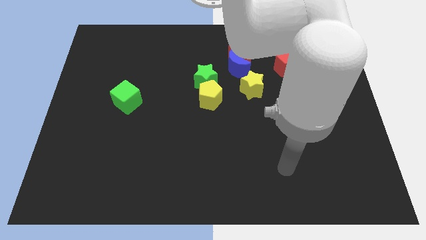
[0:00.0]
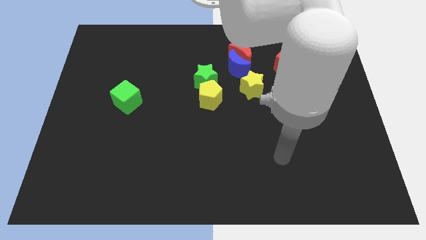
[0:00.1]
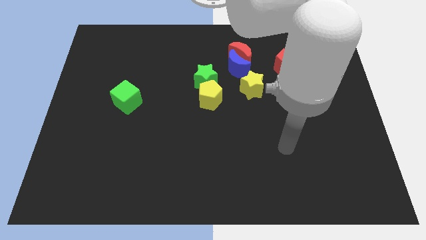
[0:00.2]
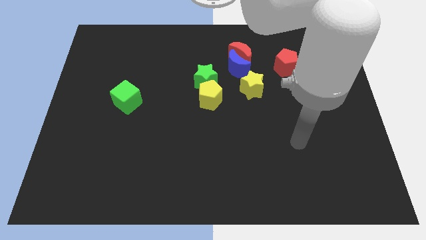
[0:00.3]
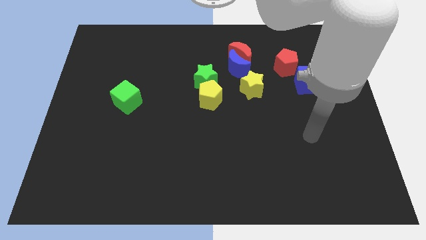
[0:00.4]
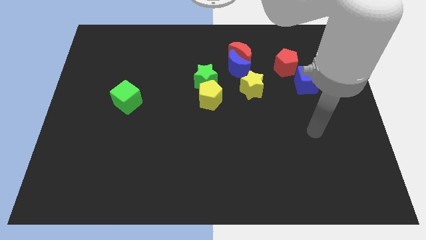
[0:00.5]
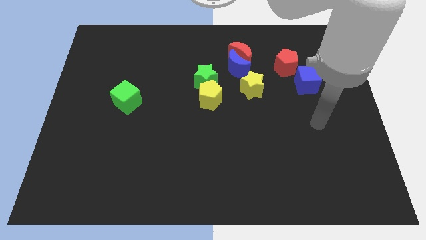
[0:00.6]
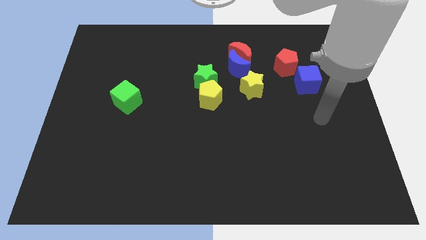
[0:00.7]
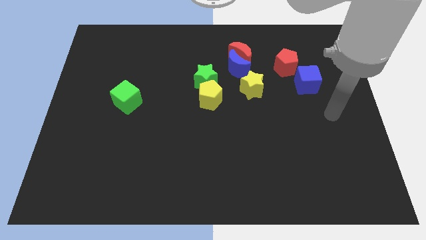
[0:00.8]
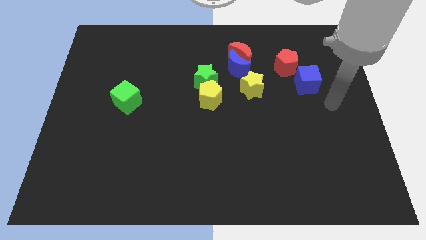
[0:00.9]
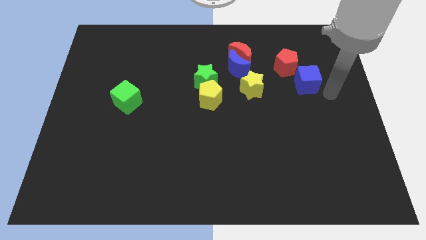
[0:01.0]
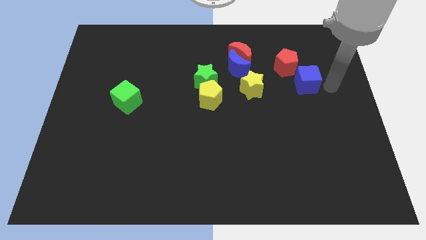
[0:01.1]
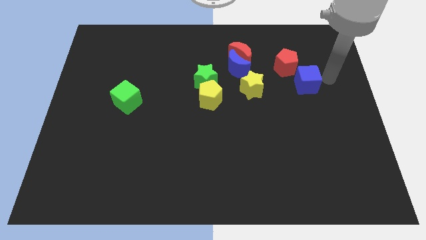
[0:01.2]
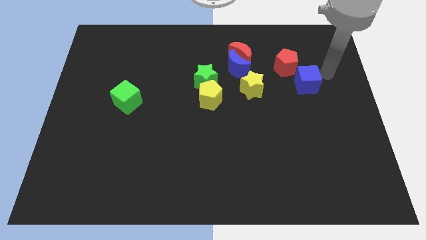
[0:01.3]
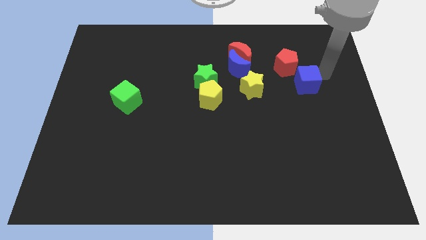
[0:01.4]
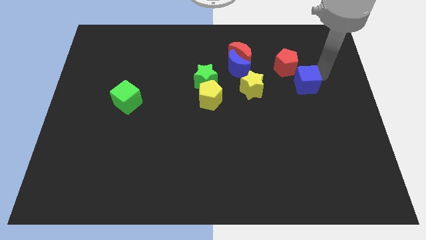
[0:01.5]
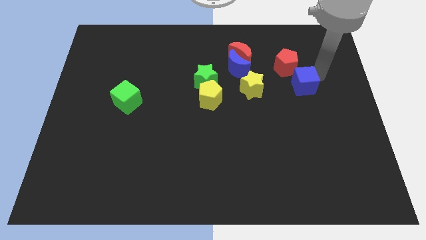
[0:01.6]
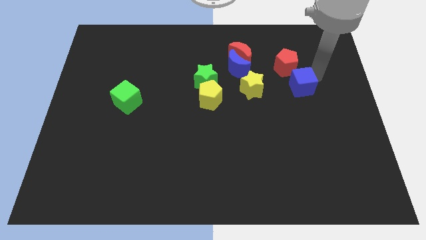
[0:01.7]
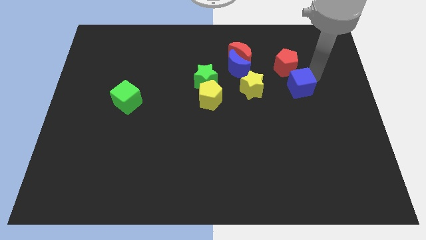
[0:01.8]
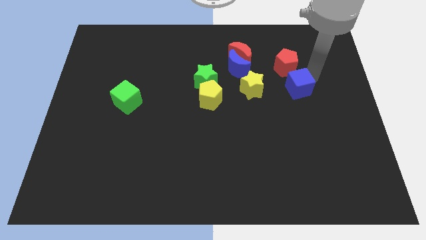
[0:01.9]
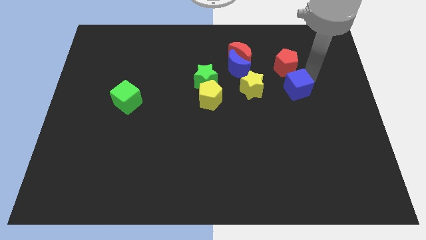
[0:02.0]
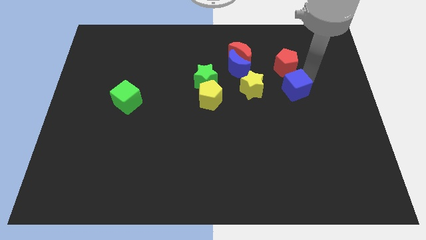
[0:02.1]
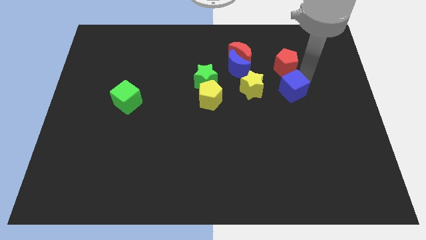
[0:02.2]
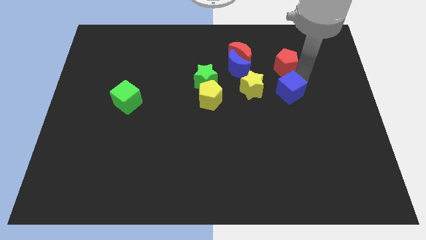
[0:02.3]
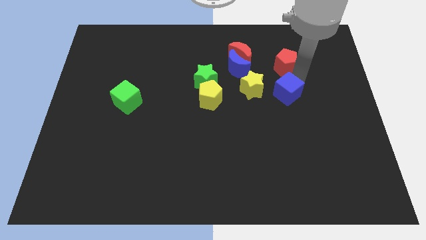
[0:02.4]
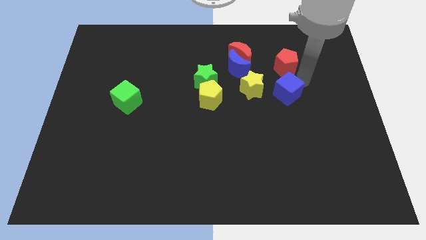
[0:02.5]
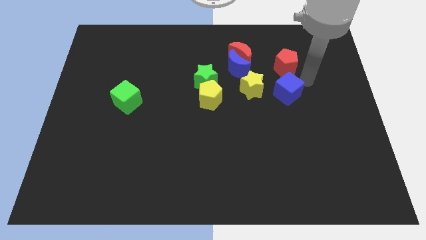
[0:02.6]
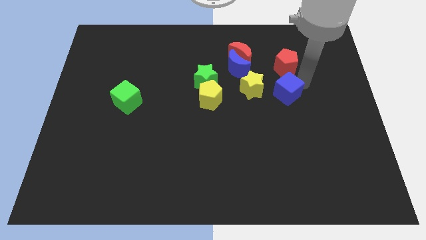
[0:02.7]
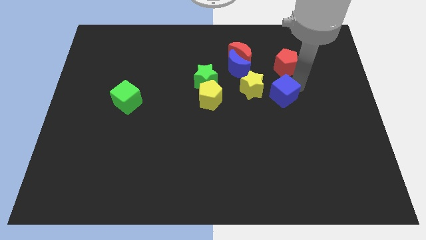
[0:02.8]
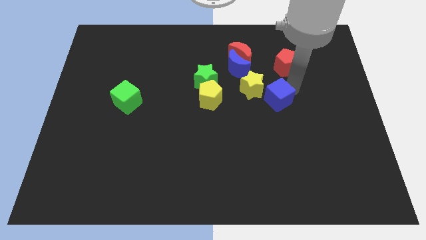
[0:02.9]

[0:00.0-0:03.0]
slightly slide the blue cube left

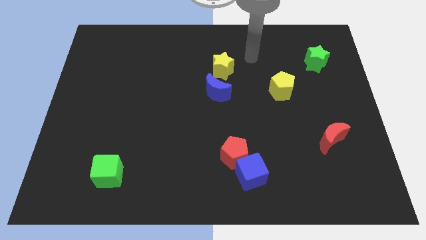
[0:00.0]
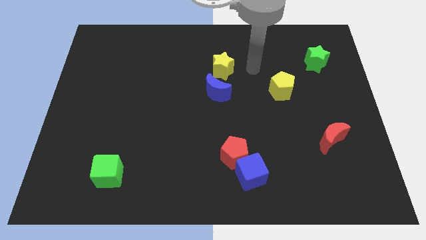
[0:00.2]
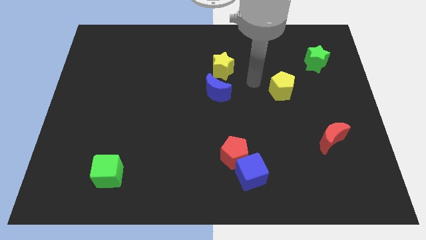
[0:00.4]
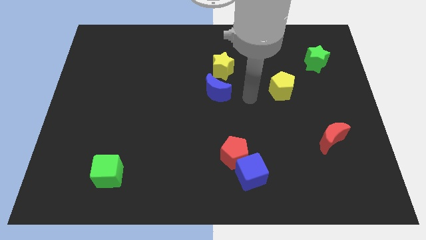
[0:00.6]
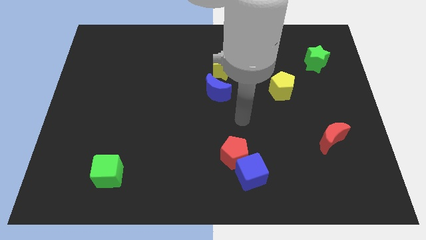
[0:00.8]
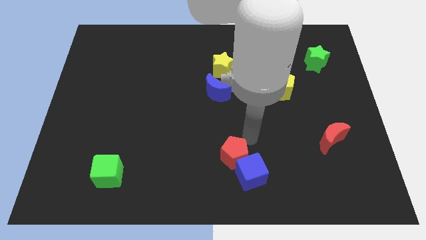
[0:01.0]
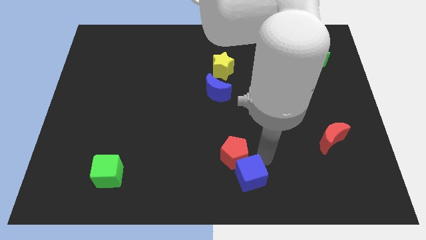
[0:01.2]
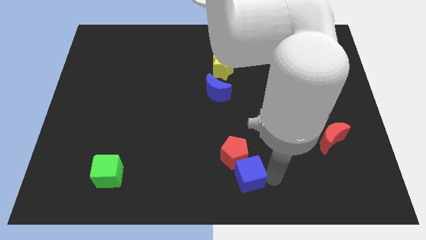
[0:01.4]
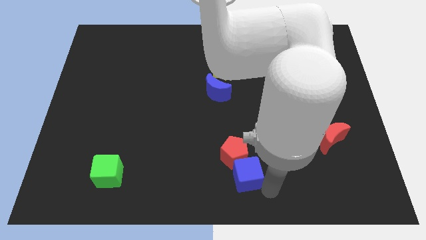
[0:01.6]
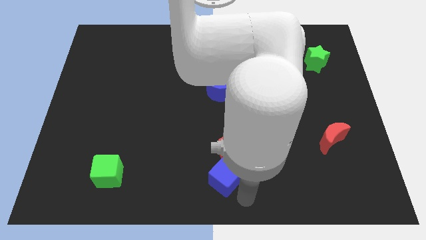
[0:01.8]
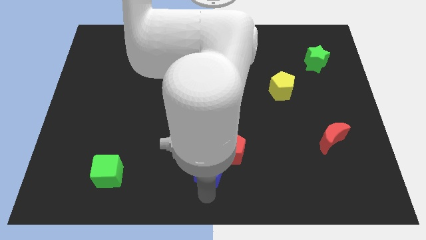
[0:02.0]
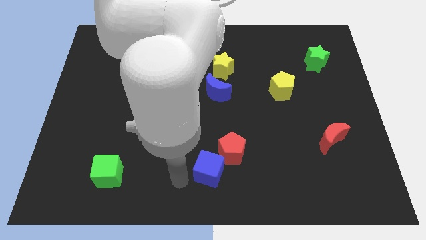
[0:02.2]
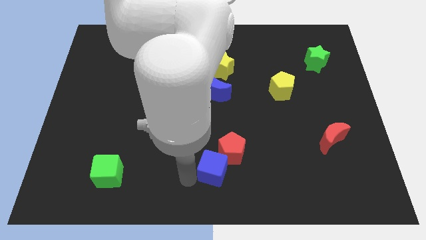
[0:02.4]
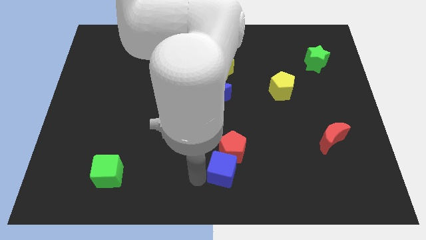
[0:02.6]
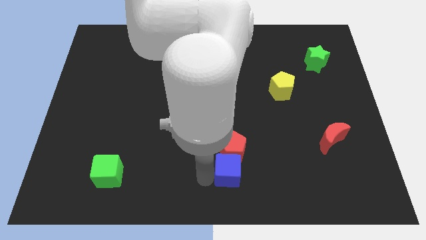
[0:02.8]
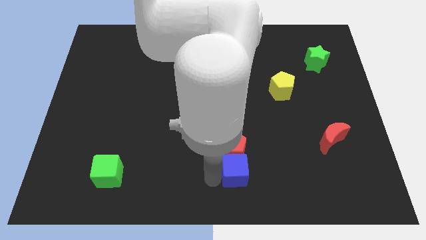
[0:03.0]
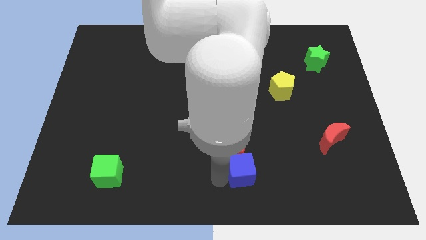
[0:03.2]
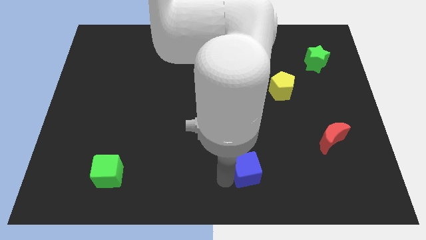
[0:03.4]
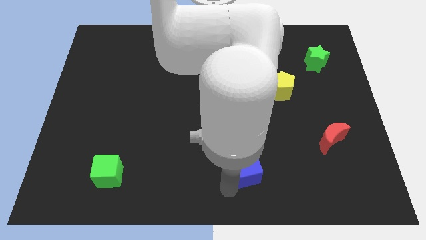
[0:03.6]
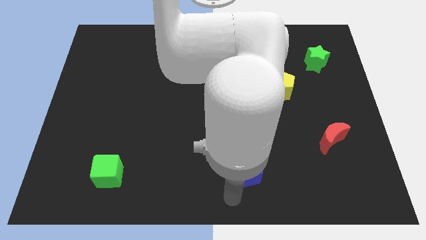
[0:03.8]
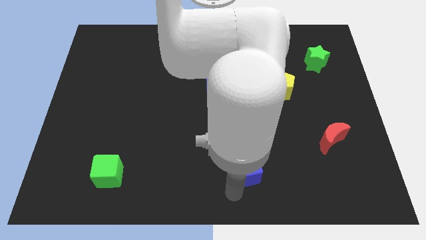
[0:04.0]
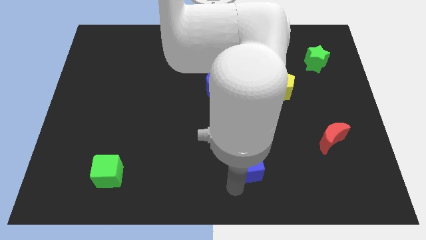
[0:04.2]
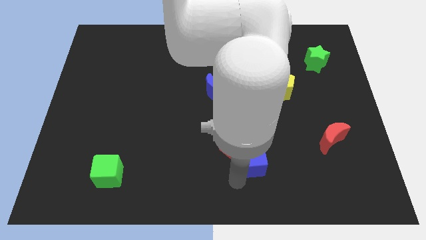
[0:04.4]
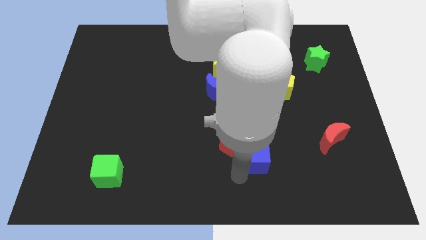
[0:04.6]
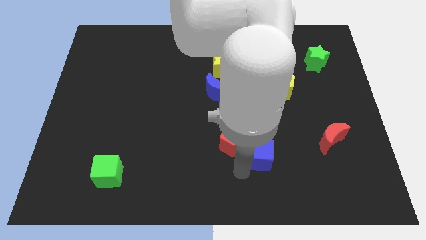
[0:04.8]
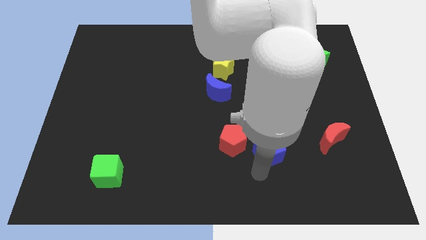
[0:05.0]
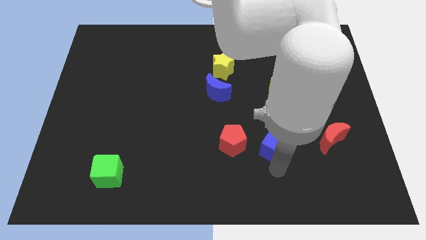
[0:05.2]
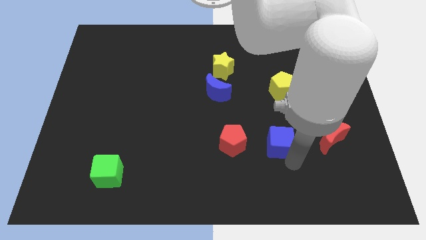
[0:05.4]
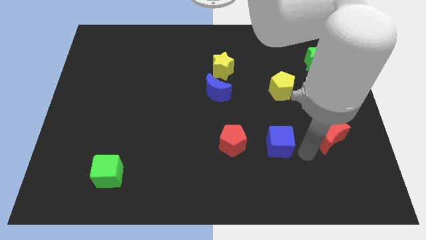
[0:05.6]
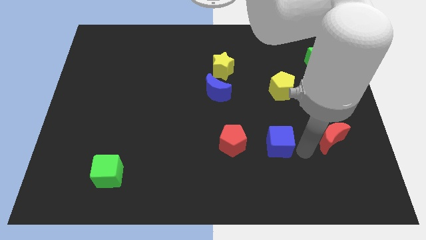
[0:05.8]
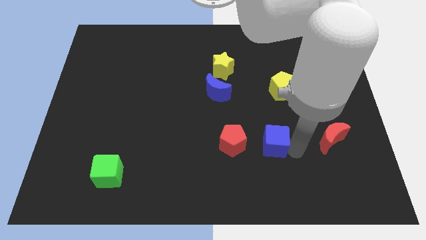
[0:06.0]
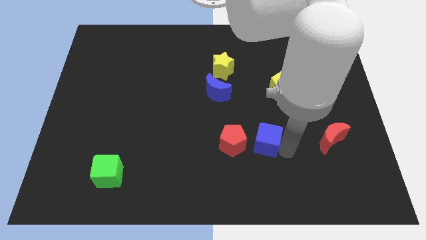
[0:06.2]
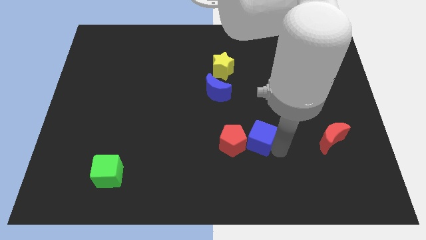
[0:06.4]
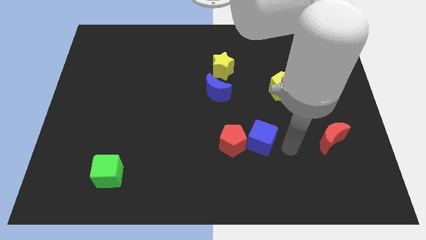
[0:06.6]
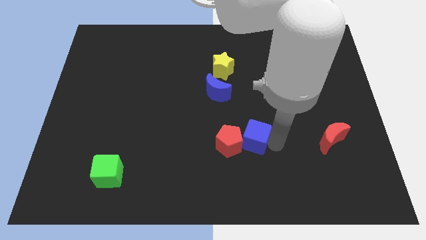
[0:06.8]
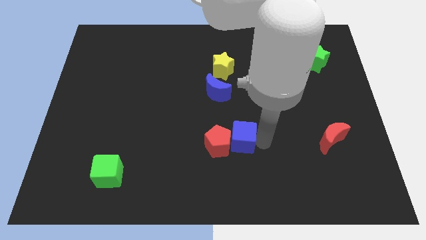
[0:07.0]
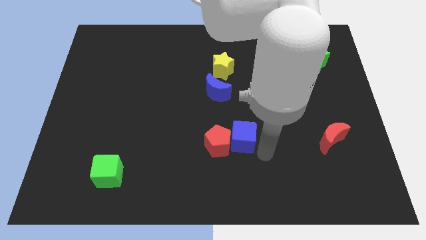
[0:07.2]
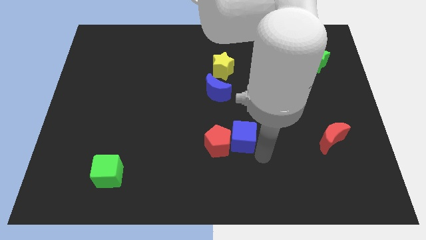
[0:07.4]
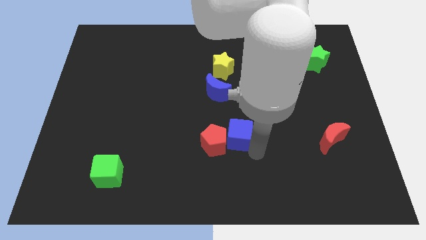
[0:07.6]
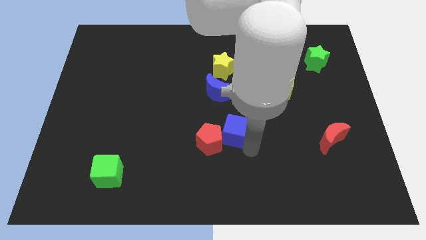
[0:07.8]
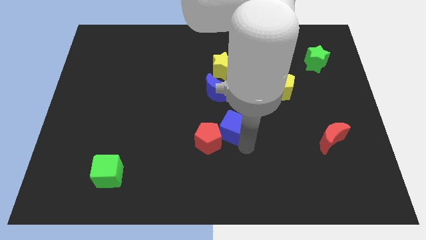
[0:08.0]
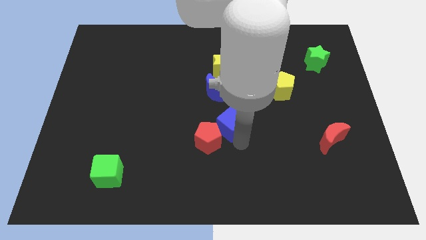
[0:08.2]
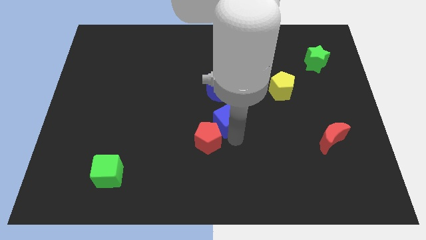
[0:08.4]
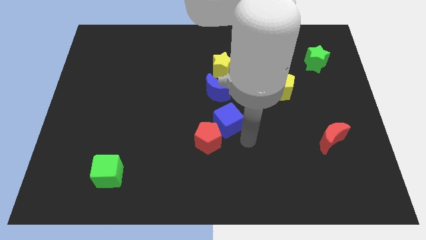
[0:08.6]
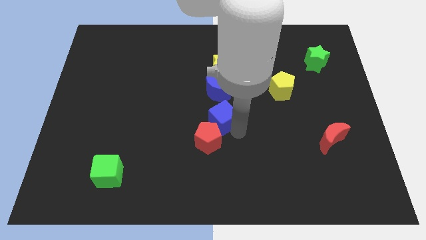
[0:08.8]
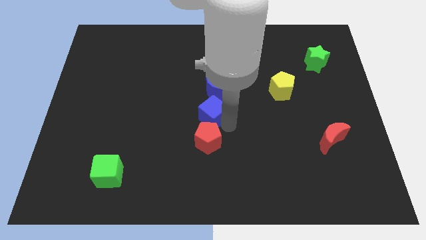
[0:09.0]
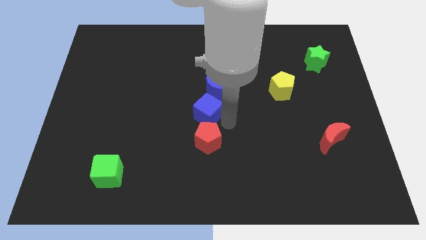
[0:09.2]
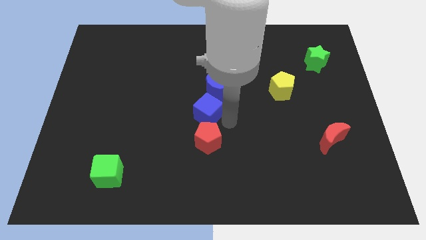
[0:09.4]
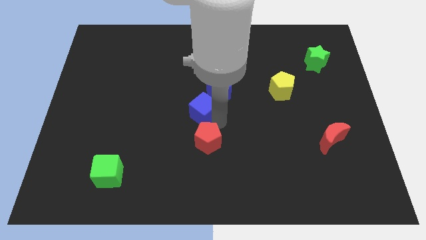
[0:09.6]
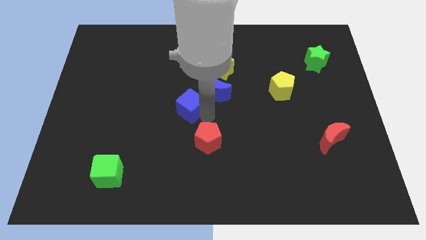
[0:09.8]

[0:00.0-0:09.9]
move the blue cube upwards and then to the left
